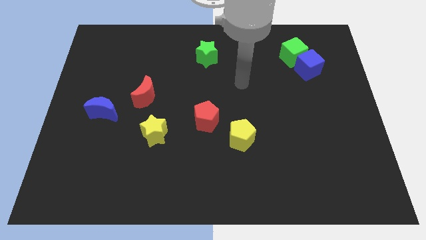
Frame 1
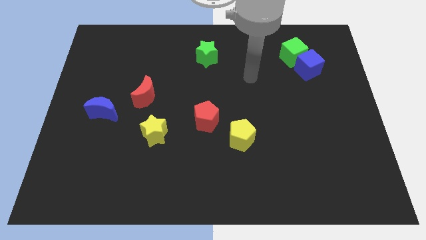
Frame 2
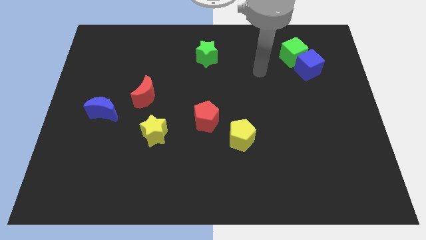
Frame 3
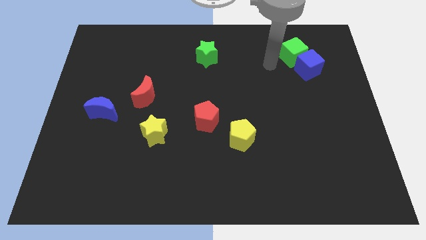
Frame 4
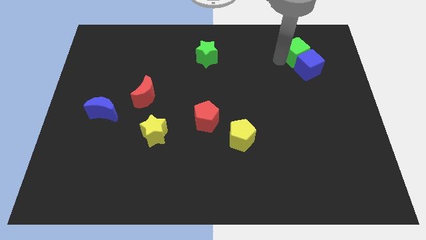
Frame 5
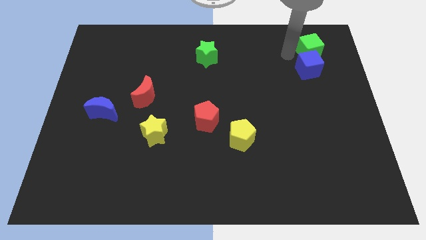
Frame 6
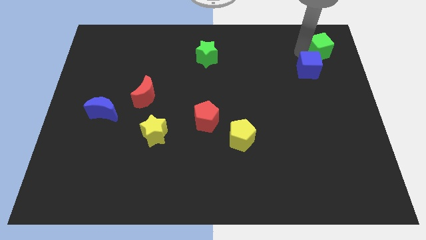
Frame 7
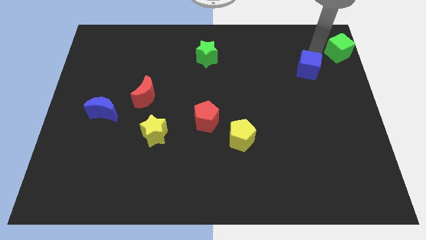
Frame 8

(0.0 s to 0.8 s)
move the blue cube away from the green cube

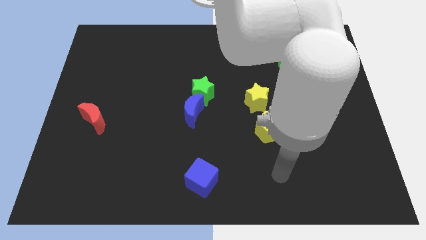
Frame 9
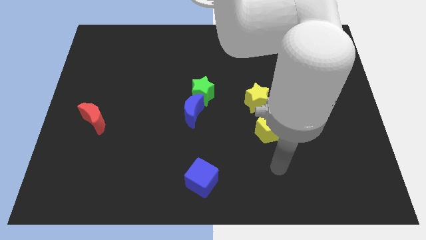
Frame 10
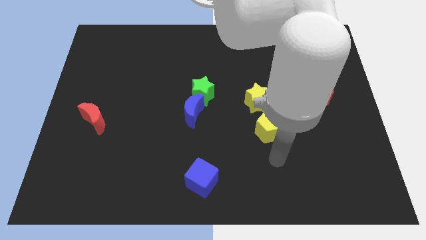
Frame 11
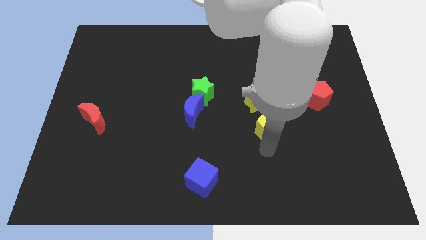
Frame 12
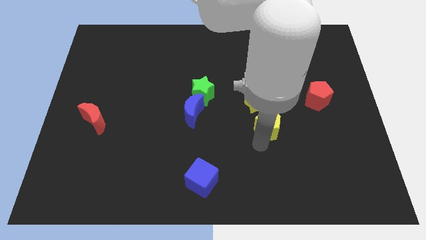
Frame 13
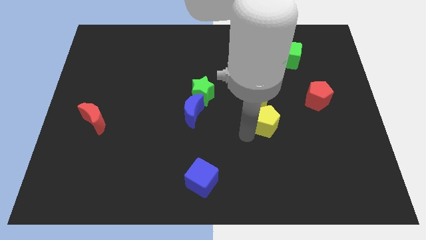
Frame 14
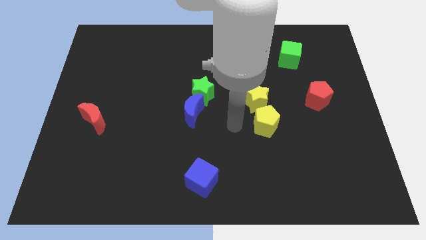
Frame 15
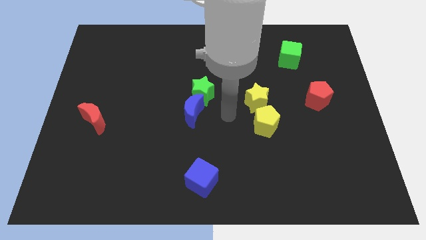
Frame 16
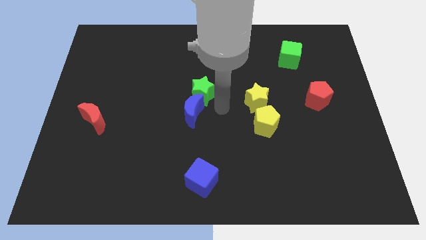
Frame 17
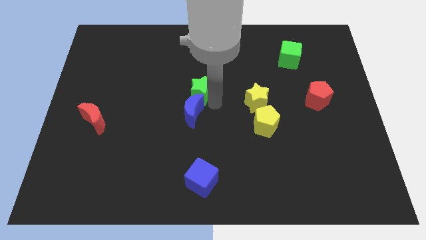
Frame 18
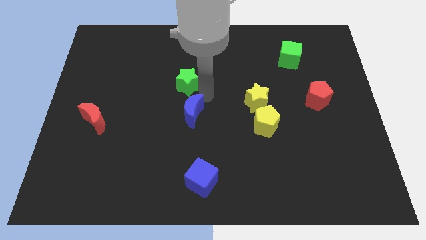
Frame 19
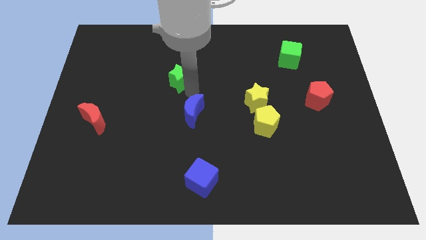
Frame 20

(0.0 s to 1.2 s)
separate the blue moon from the green star

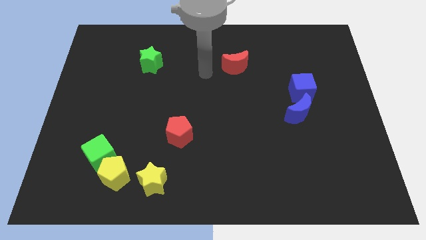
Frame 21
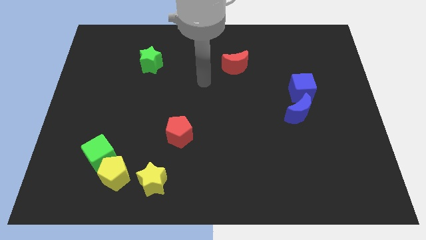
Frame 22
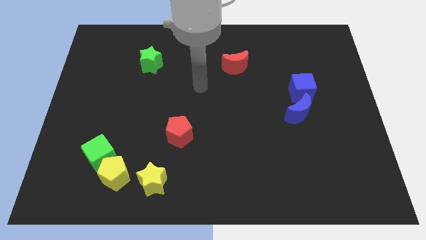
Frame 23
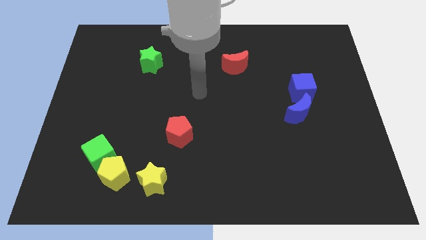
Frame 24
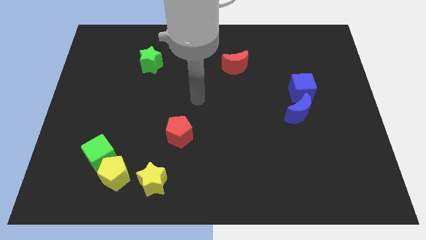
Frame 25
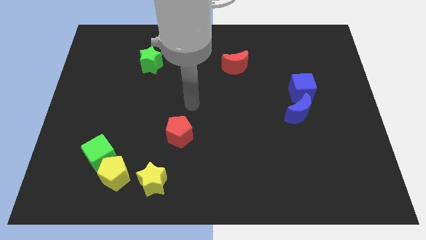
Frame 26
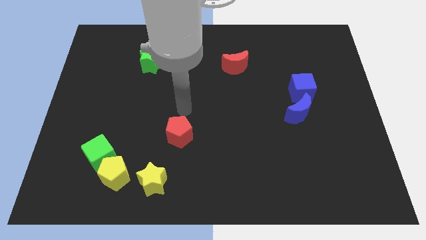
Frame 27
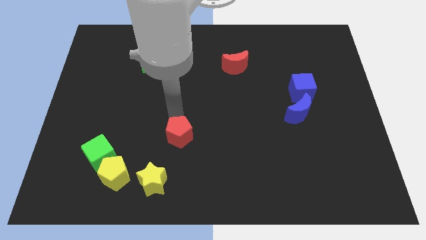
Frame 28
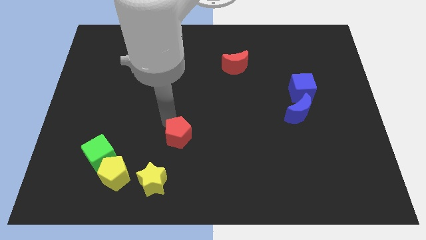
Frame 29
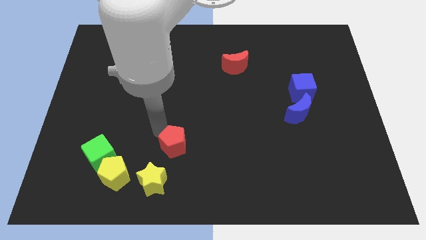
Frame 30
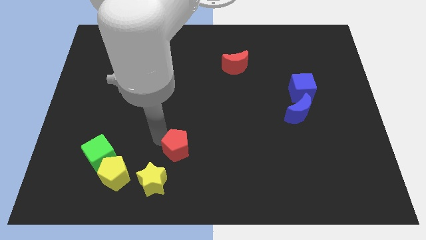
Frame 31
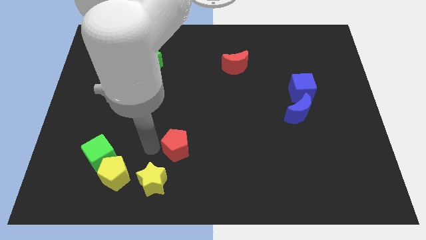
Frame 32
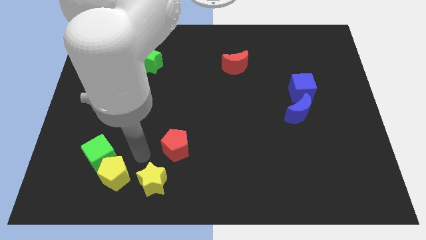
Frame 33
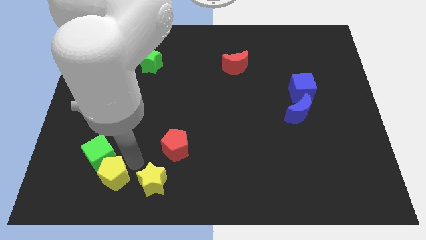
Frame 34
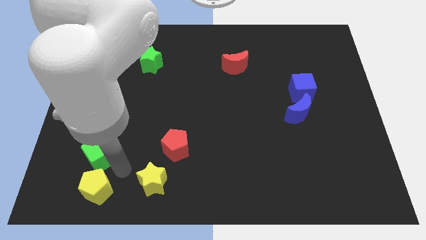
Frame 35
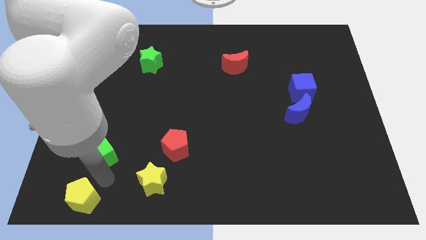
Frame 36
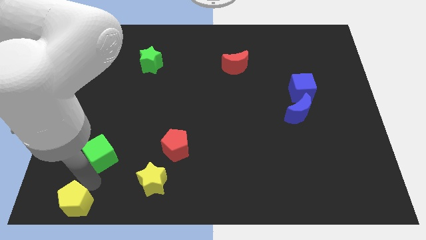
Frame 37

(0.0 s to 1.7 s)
pull the green cube apart from the yellow pentagon

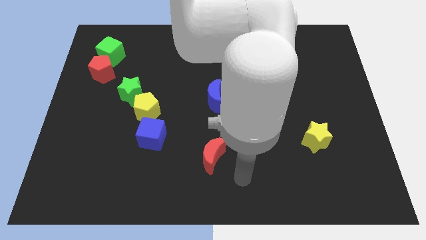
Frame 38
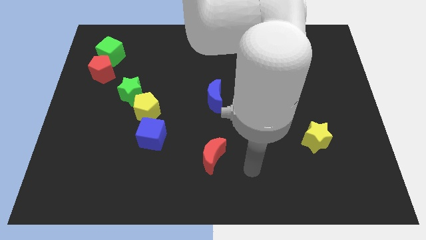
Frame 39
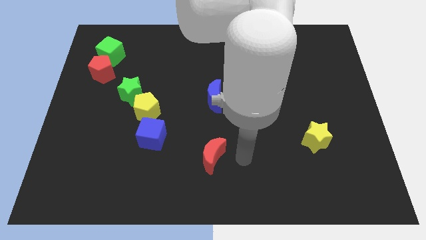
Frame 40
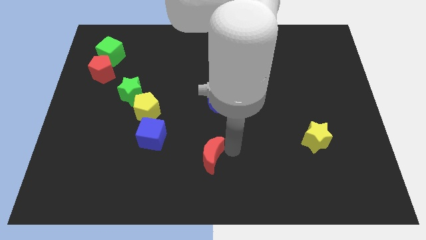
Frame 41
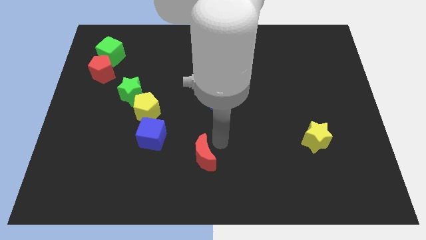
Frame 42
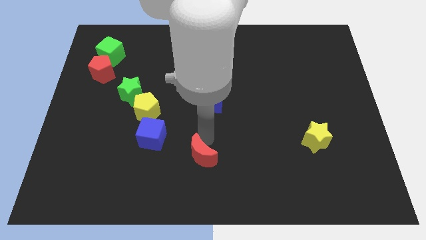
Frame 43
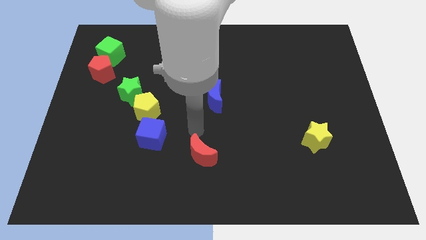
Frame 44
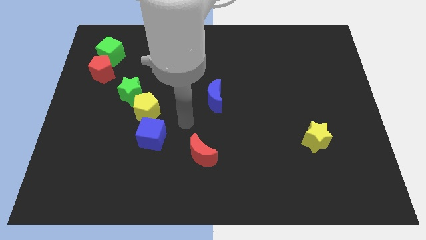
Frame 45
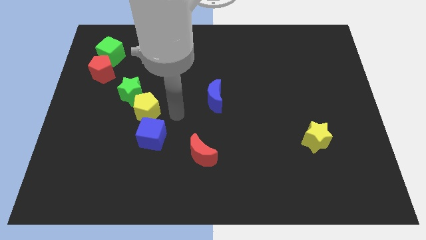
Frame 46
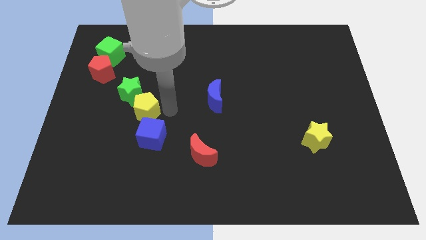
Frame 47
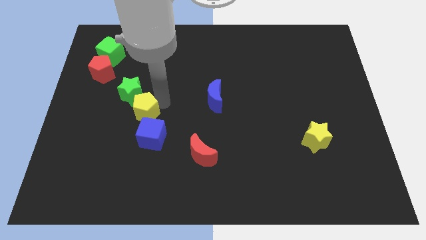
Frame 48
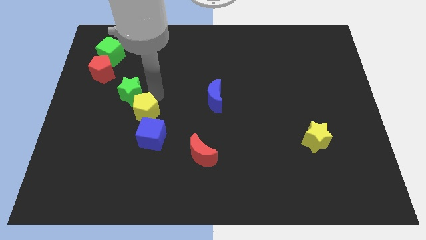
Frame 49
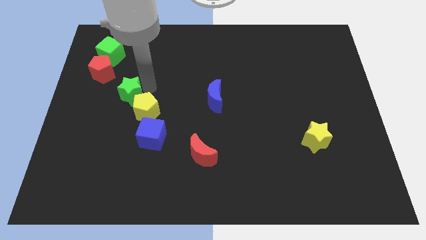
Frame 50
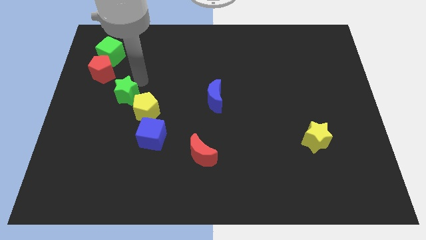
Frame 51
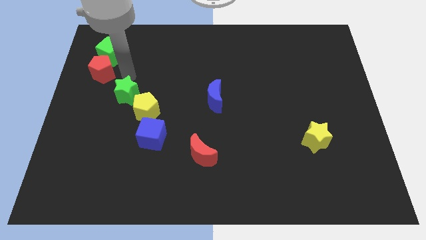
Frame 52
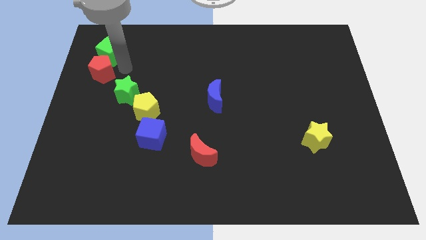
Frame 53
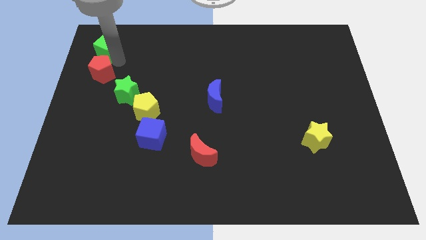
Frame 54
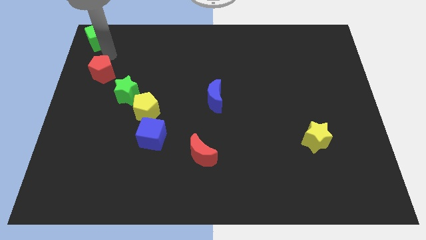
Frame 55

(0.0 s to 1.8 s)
pull the red pentagon apart from the green cube

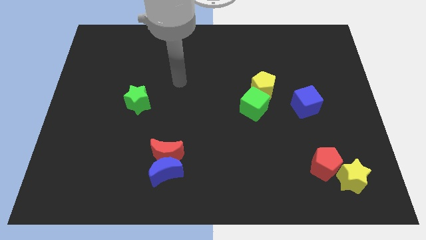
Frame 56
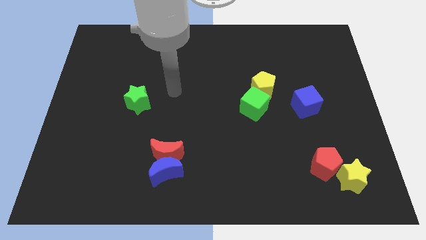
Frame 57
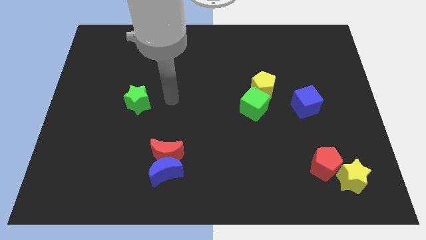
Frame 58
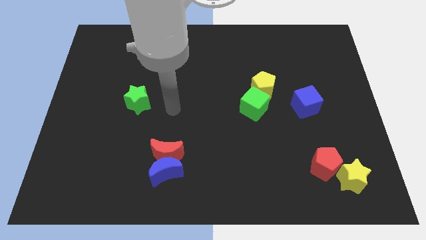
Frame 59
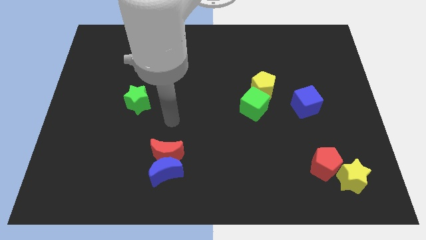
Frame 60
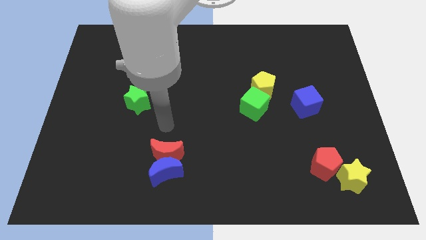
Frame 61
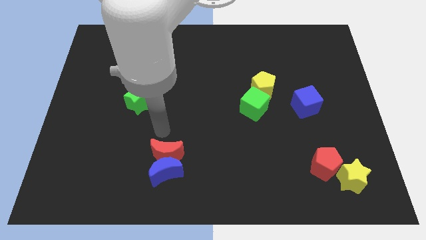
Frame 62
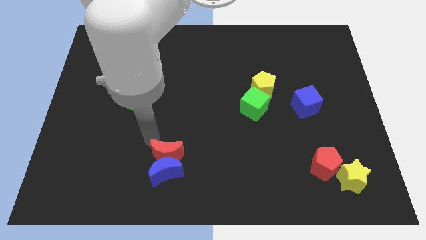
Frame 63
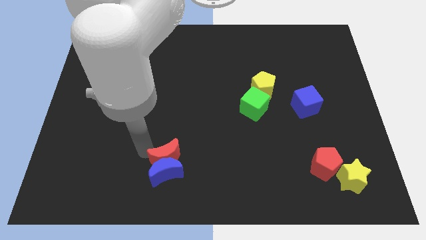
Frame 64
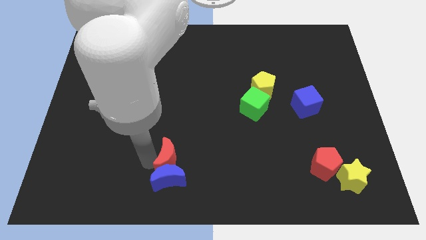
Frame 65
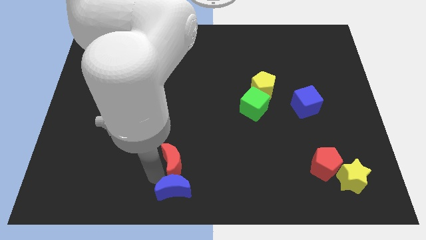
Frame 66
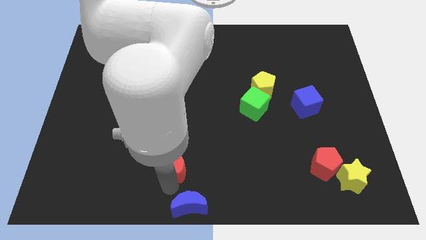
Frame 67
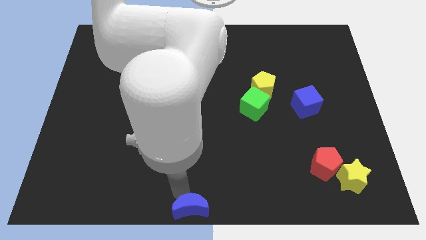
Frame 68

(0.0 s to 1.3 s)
pull the red moon apart from the blue moon

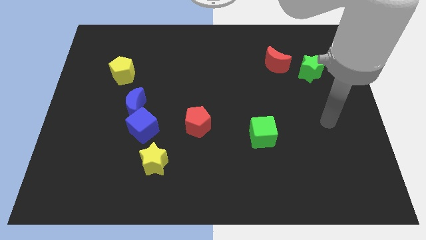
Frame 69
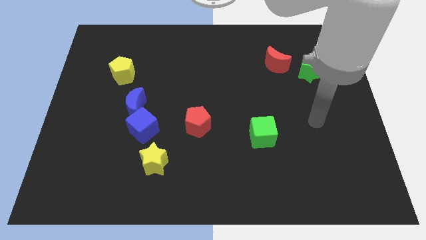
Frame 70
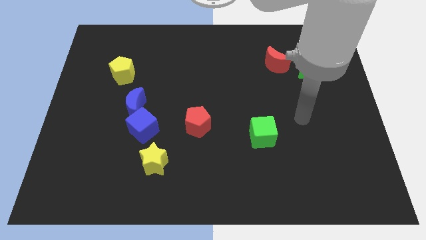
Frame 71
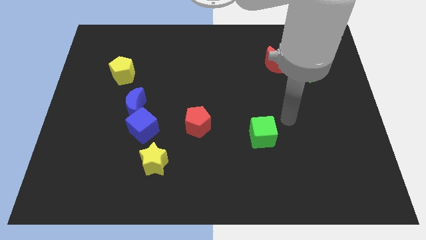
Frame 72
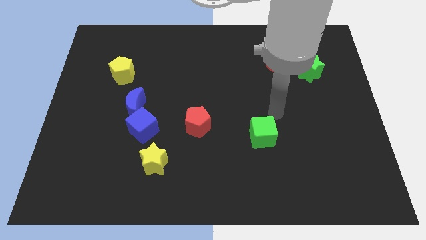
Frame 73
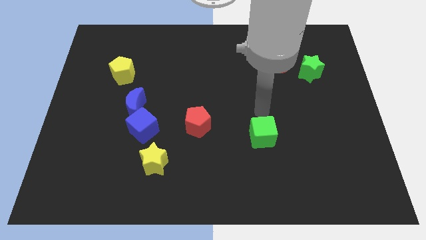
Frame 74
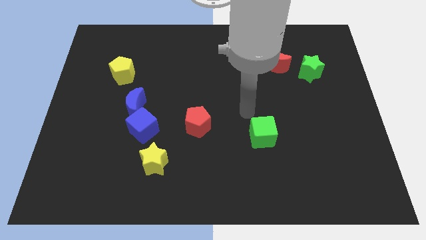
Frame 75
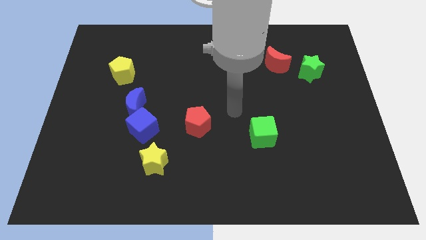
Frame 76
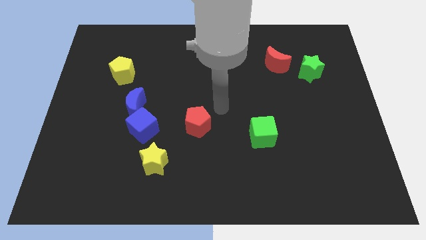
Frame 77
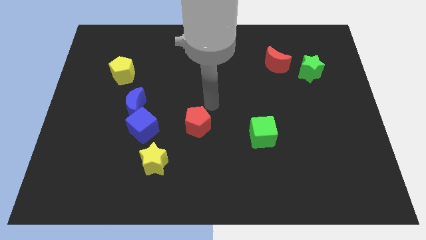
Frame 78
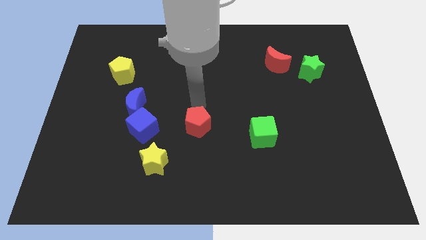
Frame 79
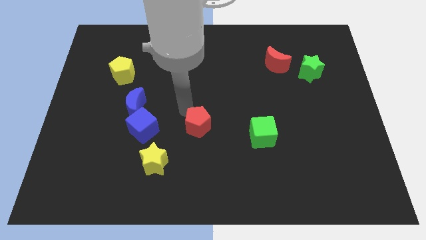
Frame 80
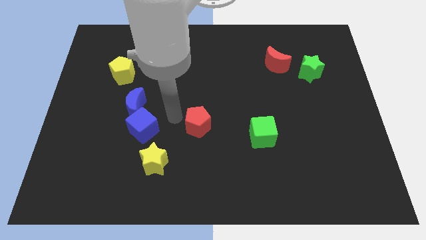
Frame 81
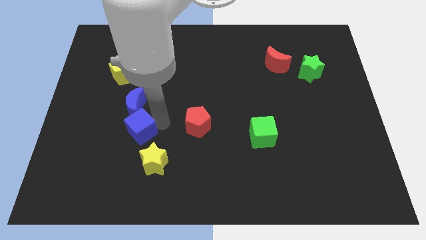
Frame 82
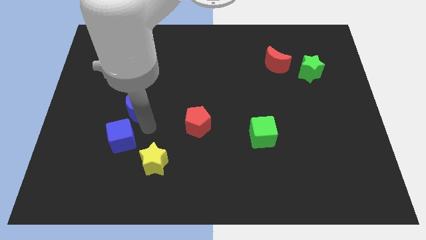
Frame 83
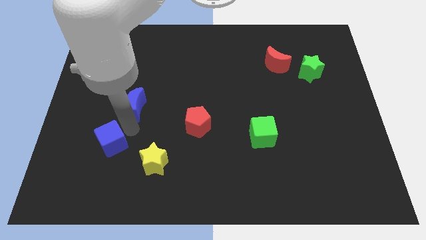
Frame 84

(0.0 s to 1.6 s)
move the blue moon away from the blue cube

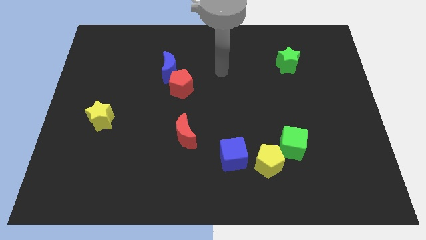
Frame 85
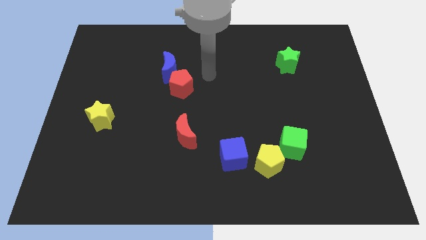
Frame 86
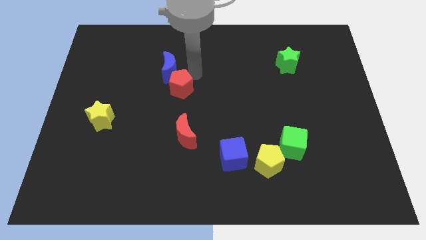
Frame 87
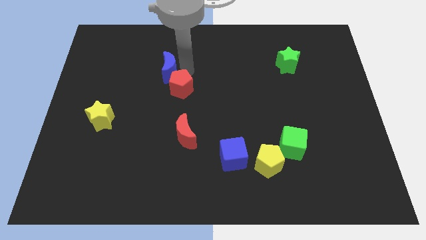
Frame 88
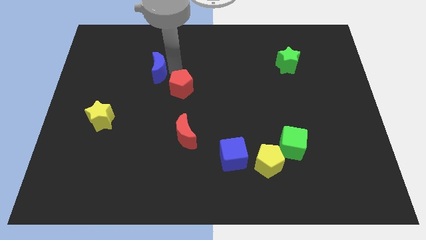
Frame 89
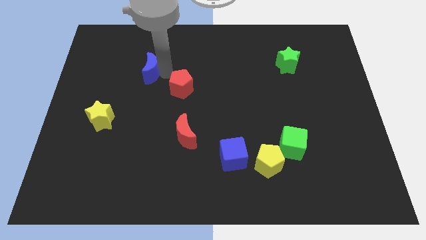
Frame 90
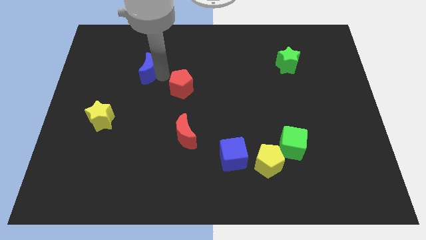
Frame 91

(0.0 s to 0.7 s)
pull the red pentagon apart from the blue moon

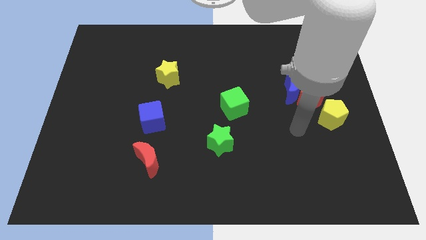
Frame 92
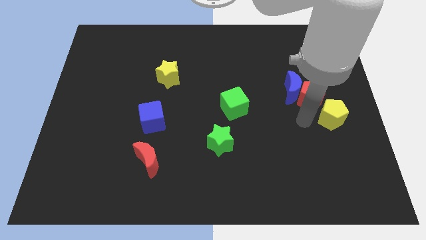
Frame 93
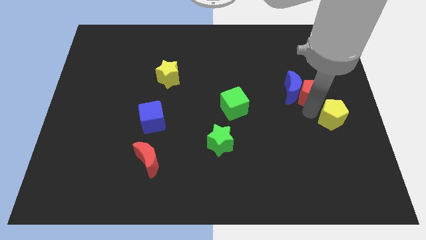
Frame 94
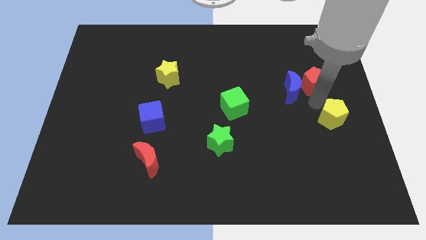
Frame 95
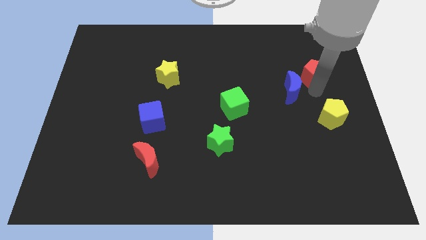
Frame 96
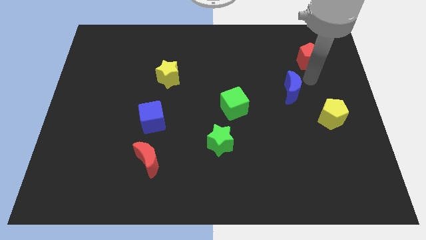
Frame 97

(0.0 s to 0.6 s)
separate the blue moon from the red pentagon
